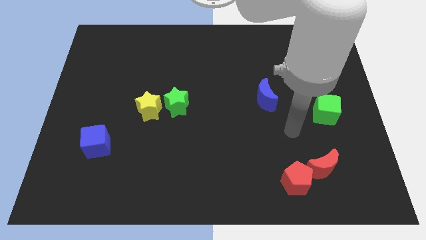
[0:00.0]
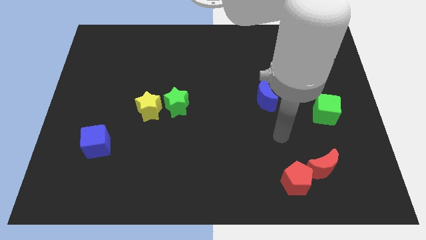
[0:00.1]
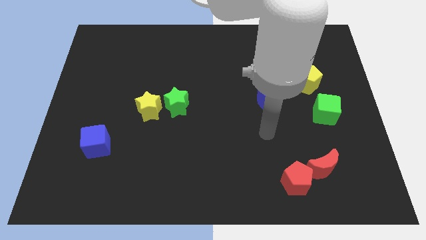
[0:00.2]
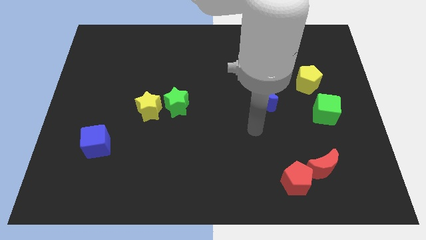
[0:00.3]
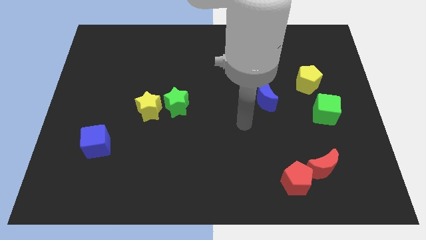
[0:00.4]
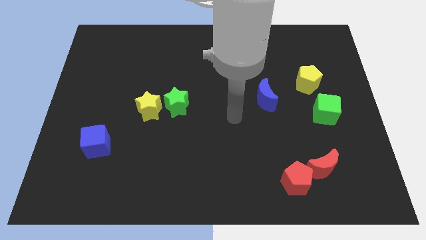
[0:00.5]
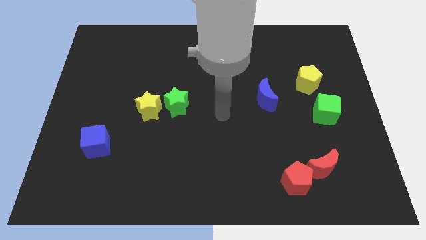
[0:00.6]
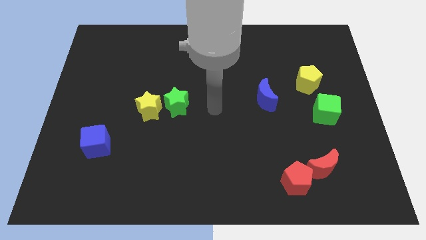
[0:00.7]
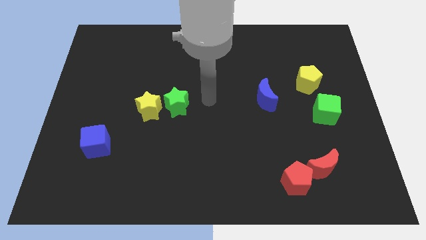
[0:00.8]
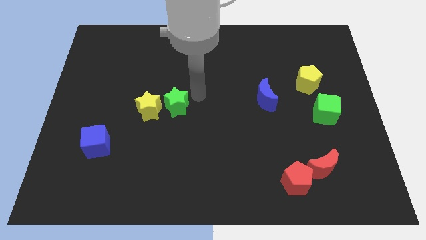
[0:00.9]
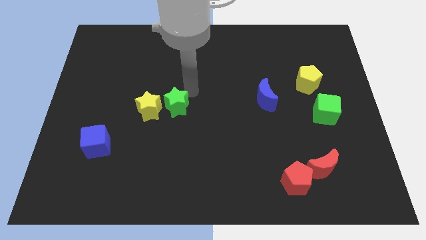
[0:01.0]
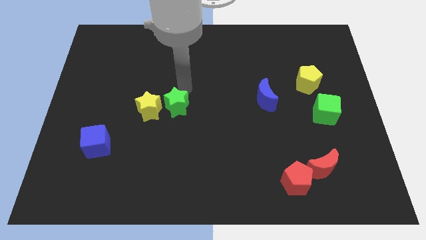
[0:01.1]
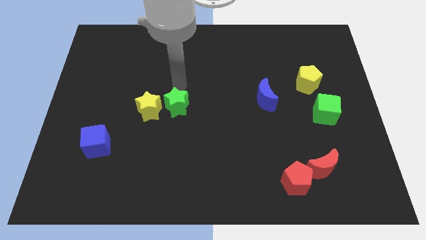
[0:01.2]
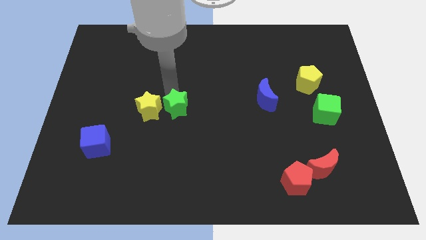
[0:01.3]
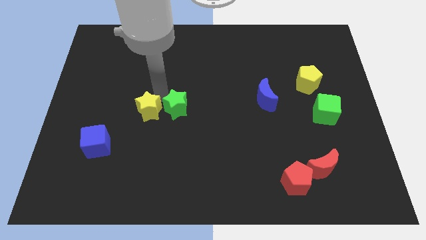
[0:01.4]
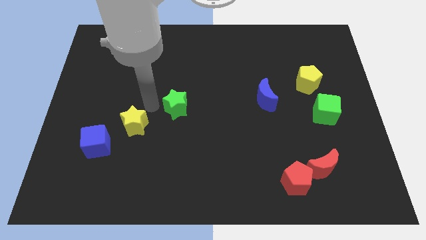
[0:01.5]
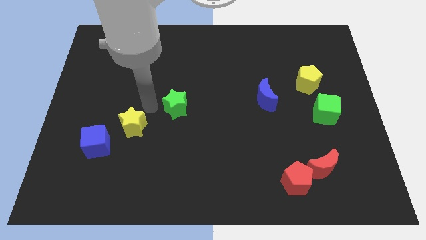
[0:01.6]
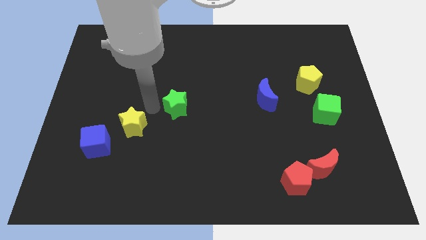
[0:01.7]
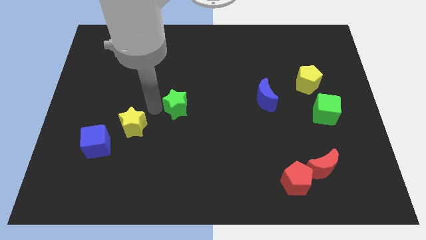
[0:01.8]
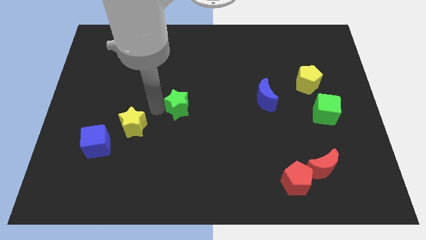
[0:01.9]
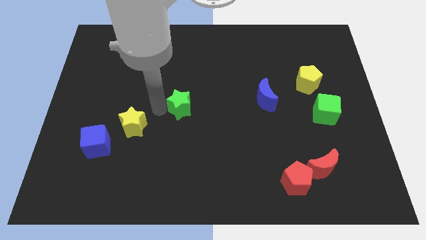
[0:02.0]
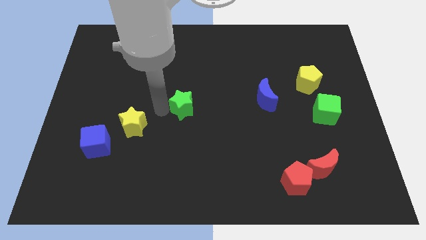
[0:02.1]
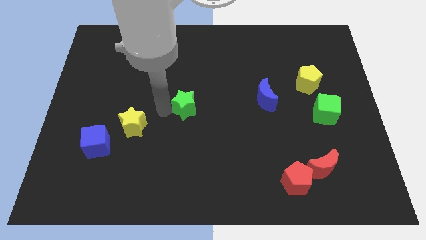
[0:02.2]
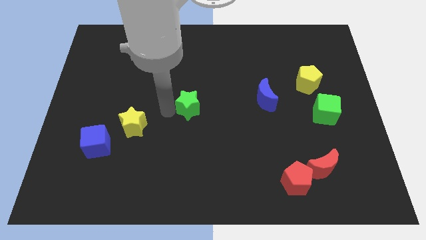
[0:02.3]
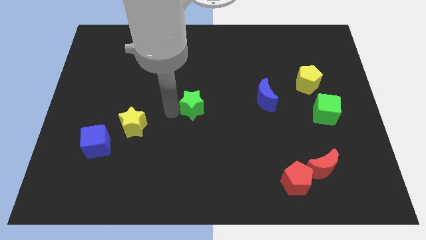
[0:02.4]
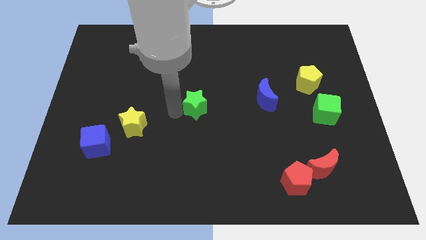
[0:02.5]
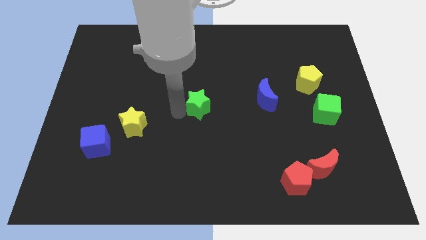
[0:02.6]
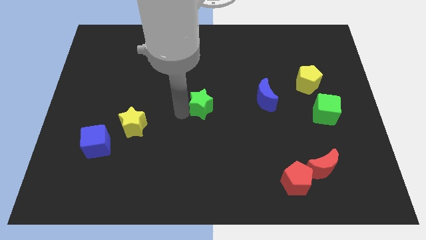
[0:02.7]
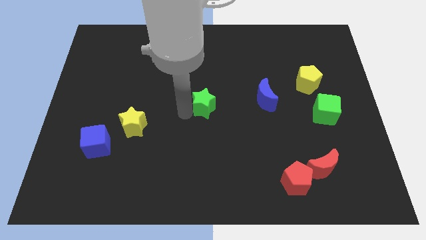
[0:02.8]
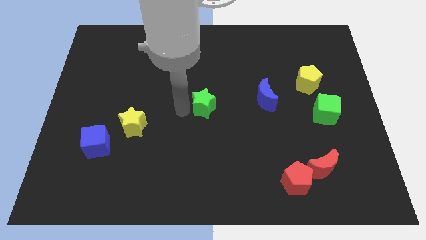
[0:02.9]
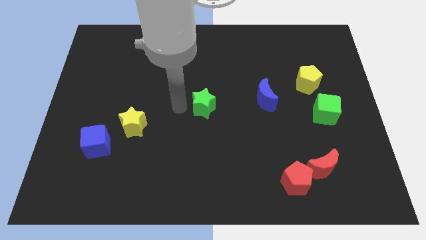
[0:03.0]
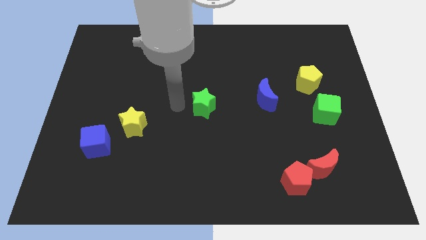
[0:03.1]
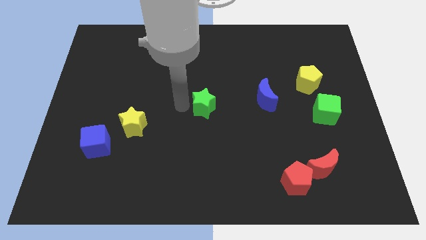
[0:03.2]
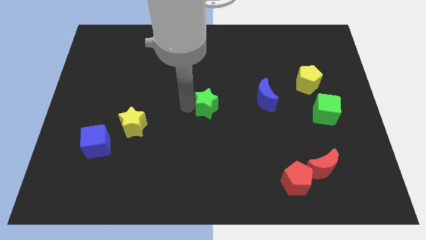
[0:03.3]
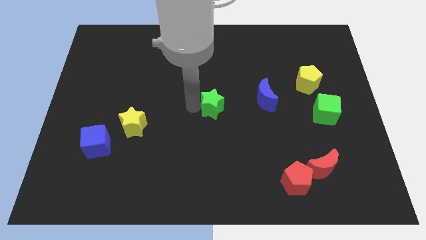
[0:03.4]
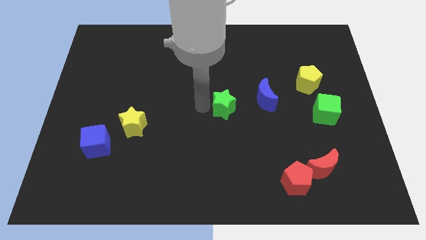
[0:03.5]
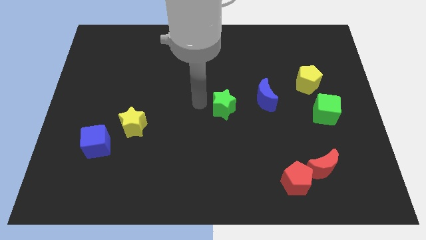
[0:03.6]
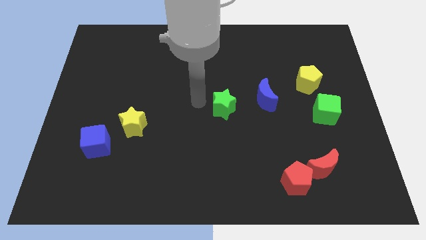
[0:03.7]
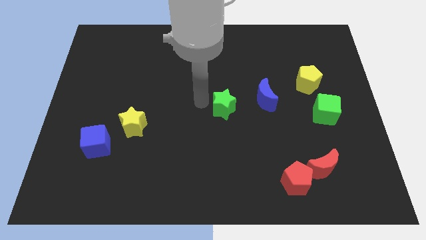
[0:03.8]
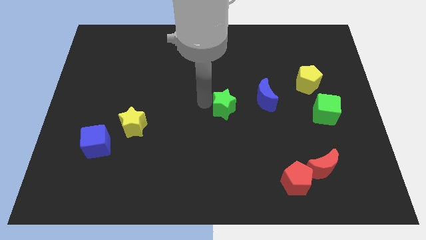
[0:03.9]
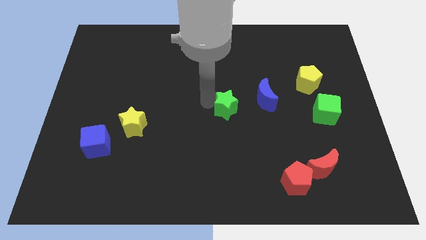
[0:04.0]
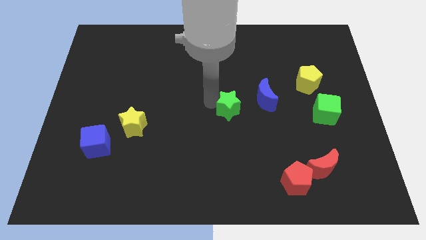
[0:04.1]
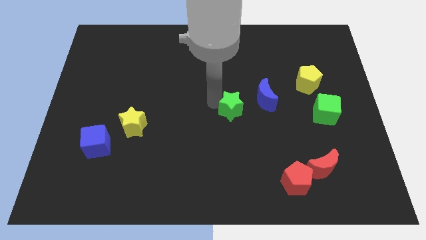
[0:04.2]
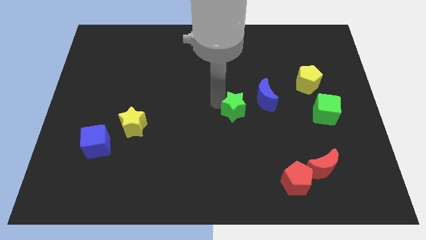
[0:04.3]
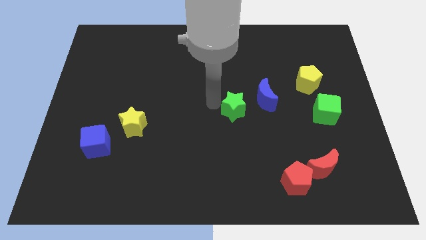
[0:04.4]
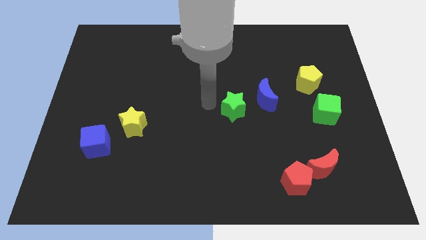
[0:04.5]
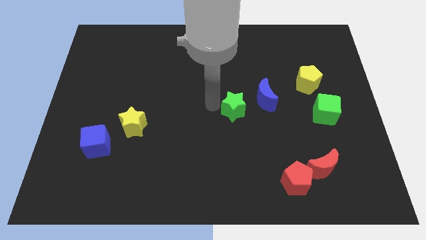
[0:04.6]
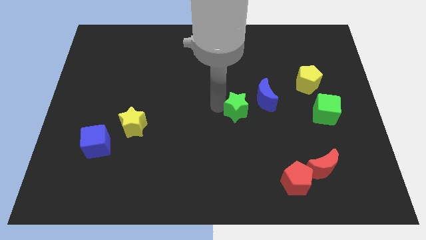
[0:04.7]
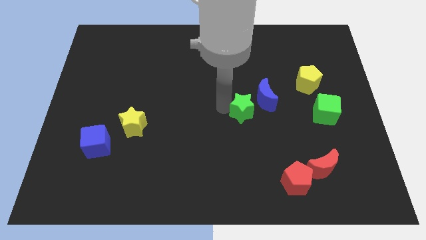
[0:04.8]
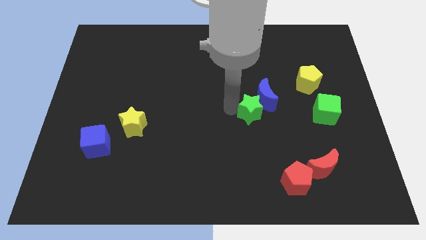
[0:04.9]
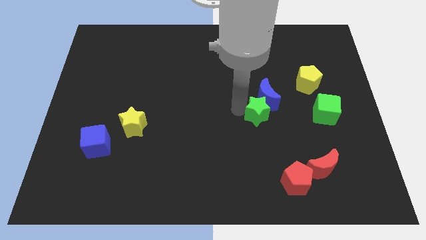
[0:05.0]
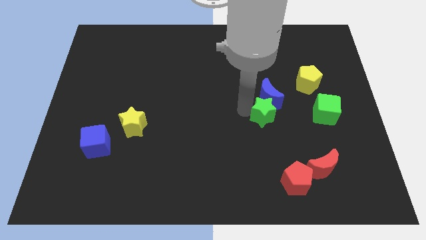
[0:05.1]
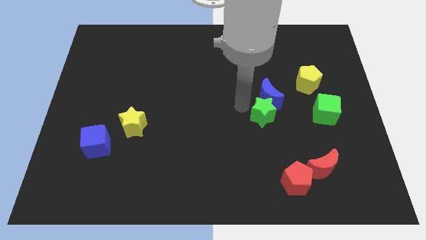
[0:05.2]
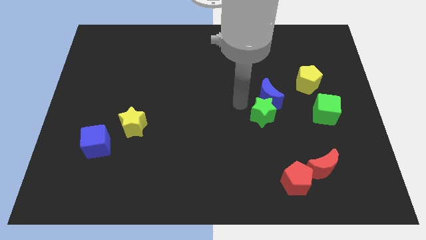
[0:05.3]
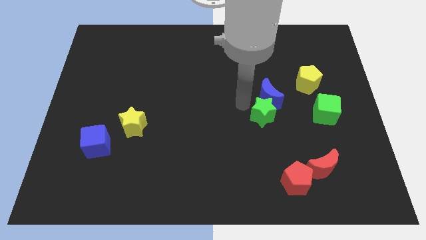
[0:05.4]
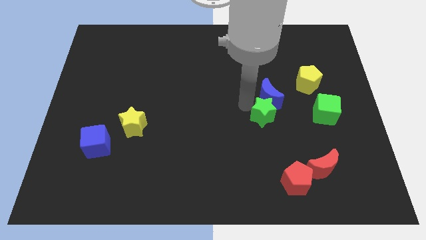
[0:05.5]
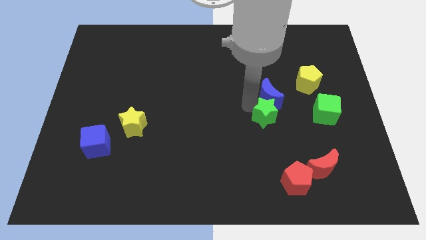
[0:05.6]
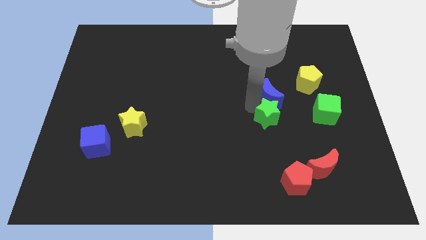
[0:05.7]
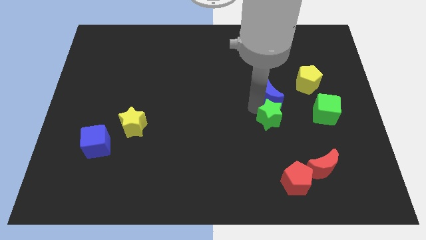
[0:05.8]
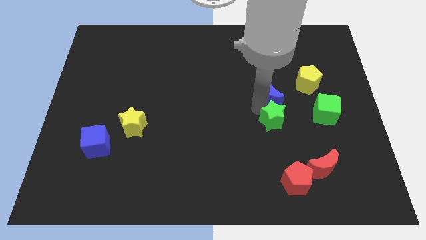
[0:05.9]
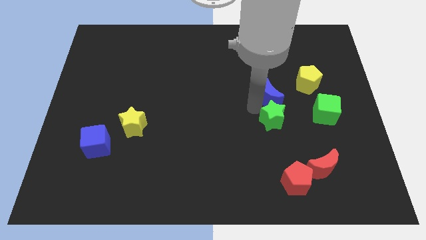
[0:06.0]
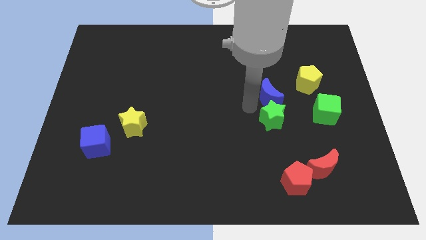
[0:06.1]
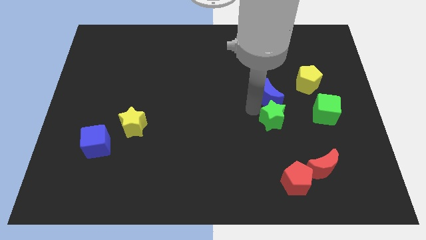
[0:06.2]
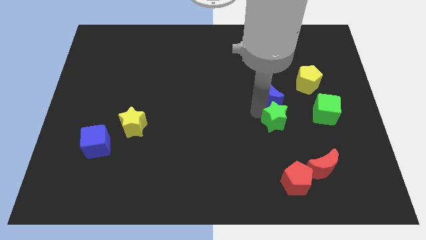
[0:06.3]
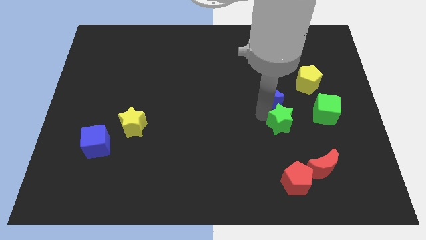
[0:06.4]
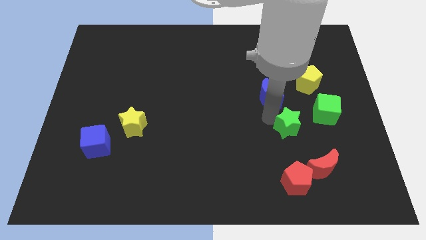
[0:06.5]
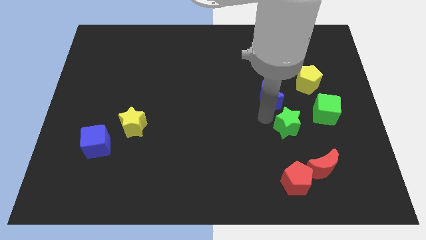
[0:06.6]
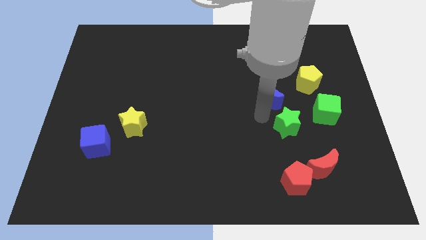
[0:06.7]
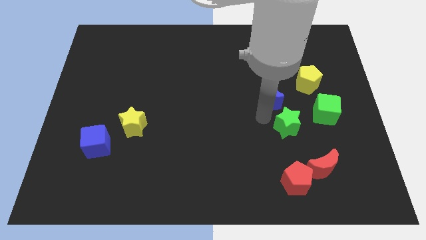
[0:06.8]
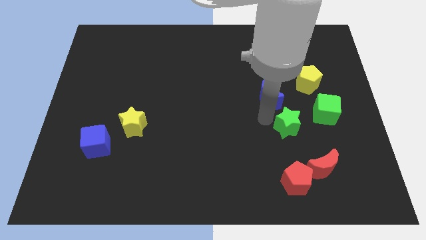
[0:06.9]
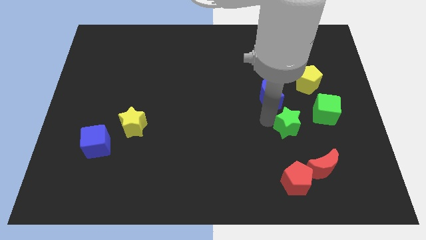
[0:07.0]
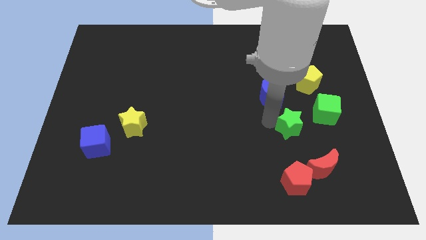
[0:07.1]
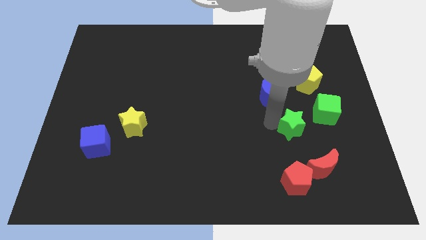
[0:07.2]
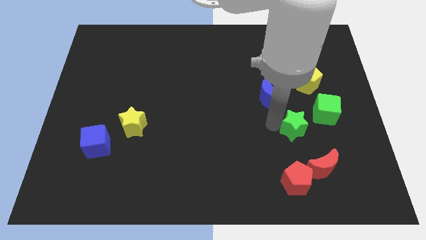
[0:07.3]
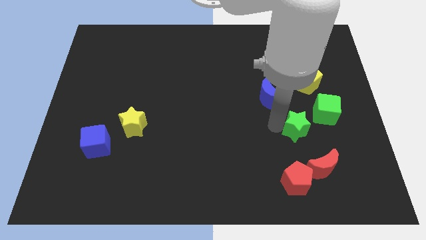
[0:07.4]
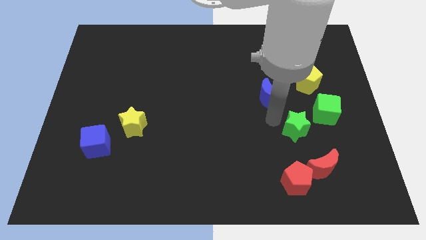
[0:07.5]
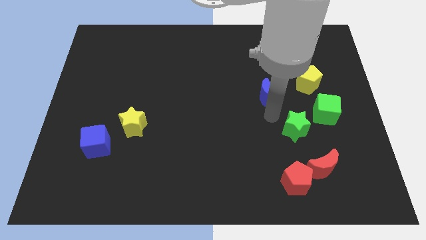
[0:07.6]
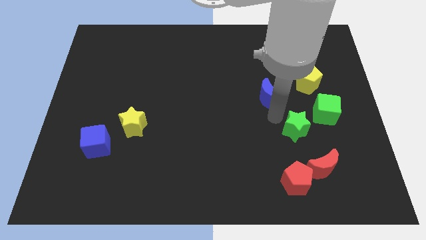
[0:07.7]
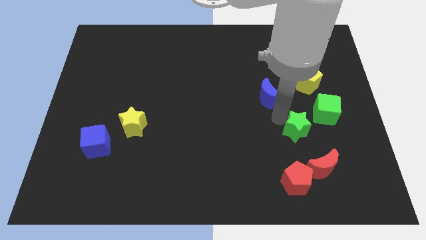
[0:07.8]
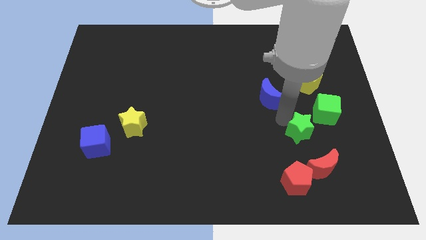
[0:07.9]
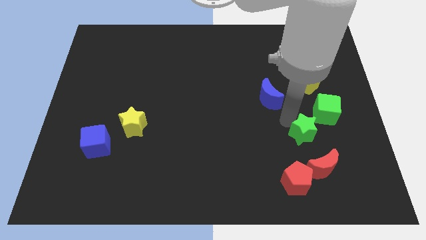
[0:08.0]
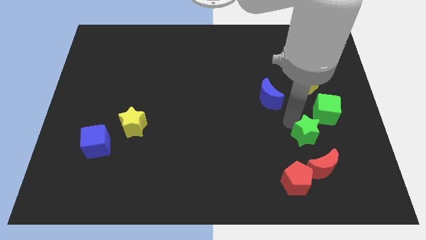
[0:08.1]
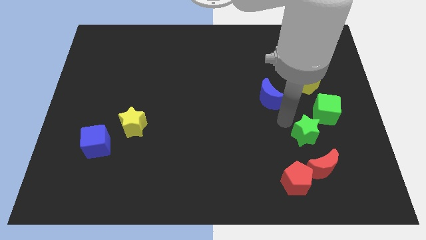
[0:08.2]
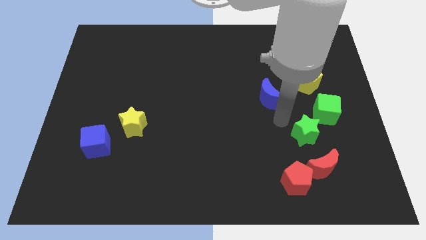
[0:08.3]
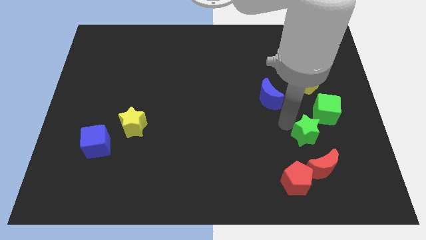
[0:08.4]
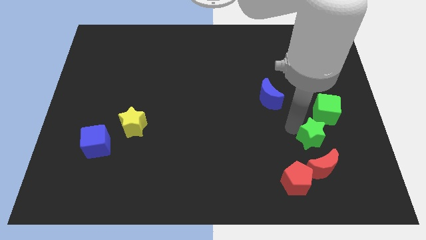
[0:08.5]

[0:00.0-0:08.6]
put the green star to the bottom of the green cube
